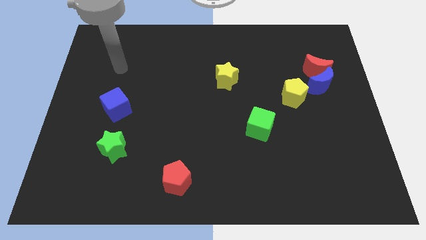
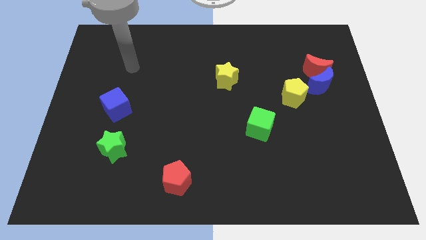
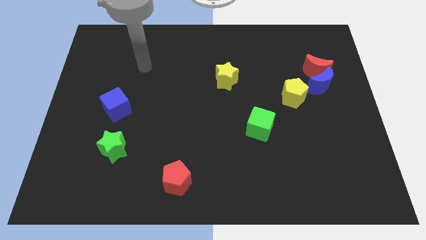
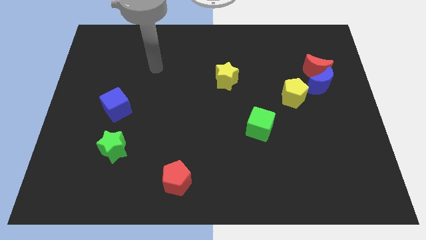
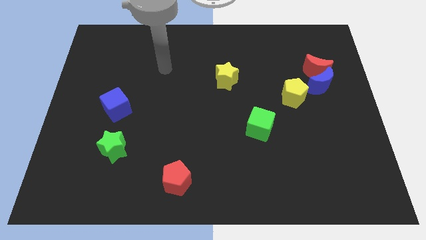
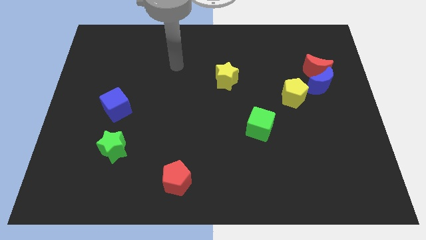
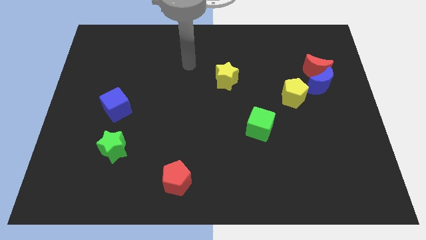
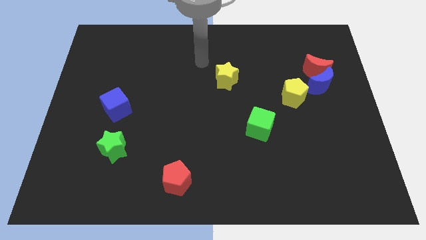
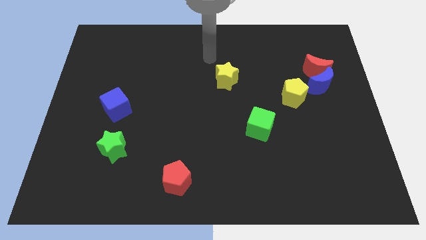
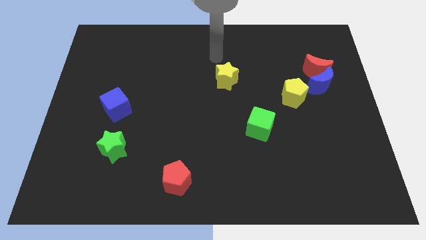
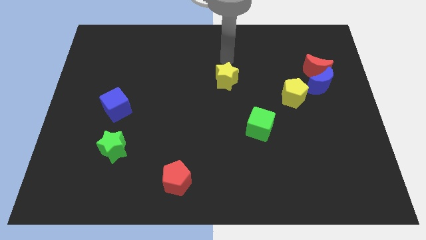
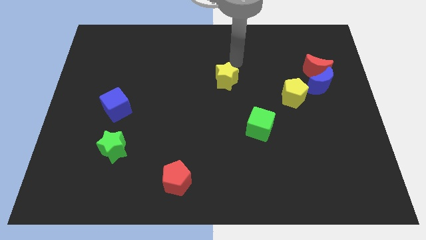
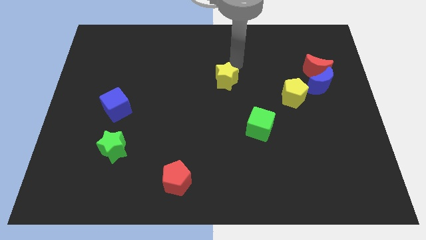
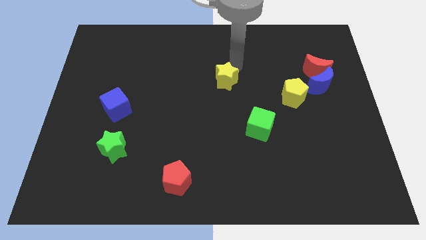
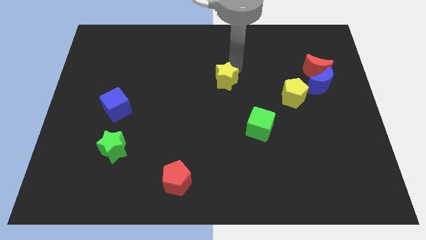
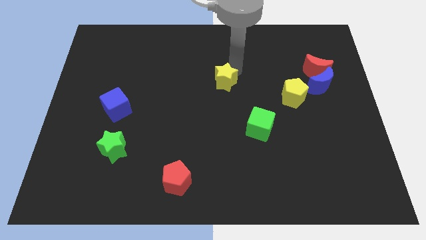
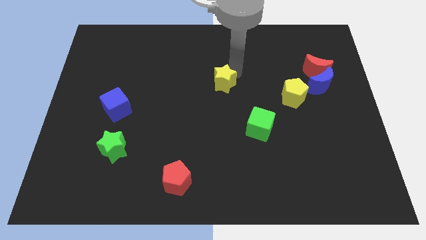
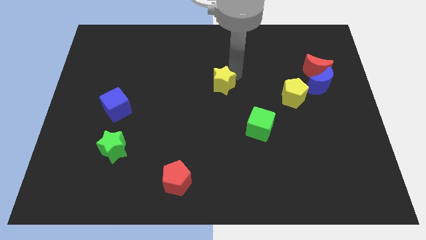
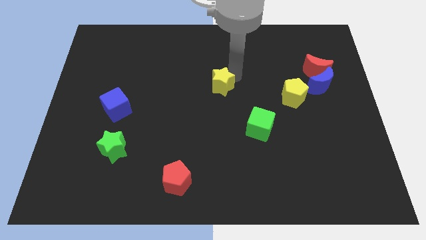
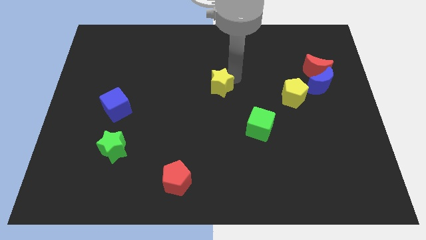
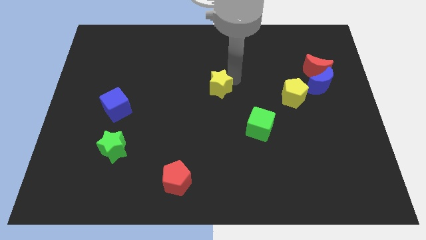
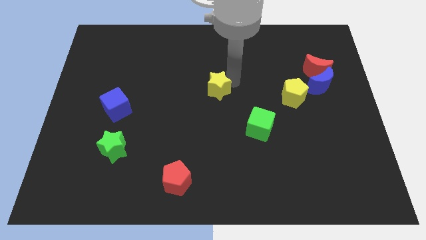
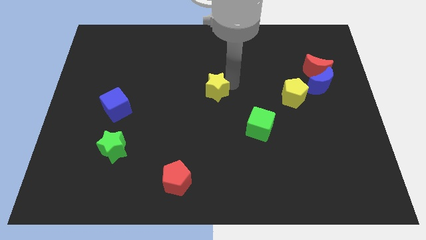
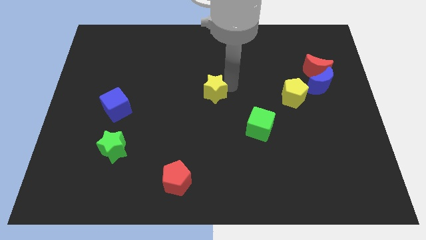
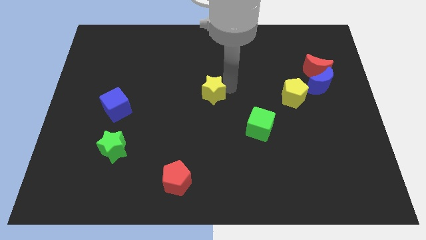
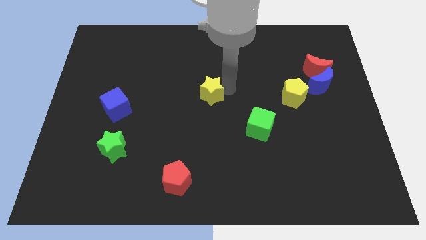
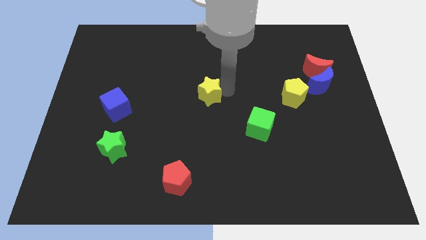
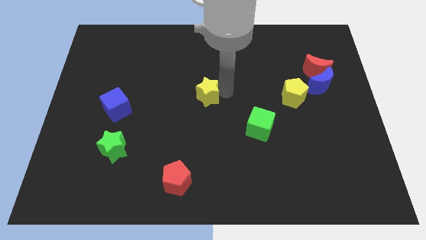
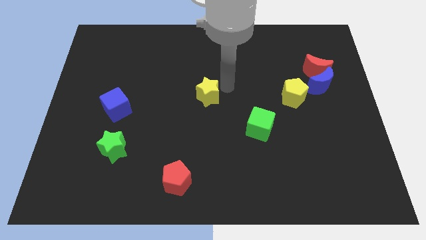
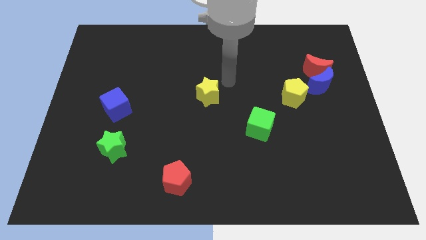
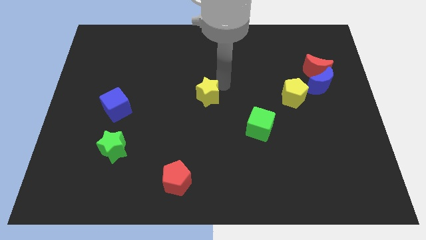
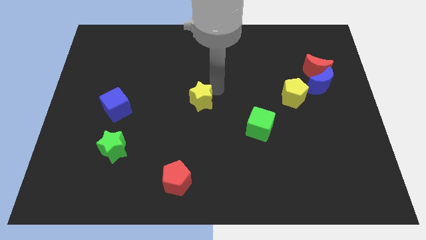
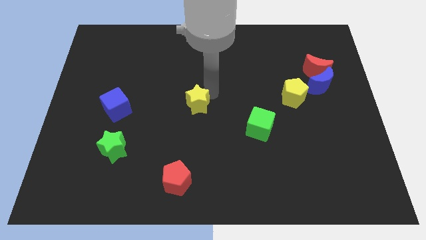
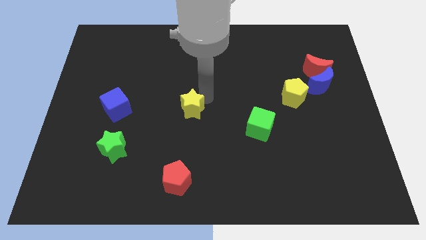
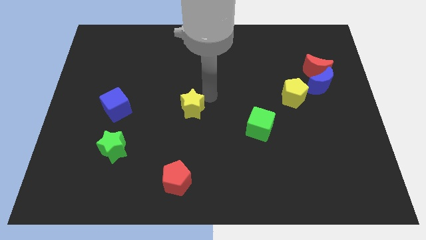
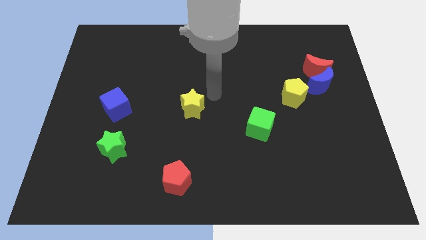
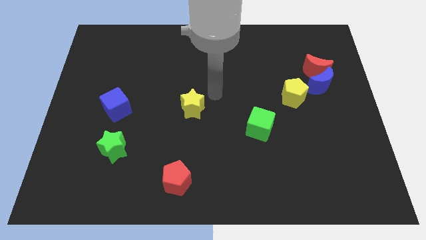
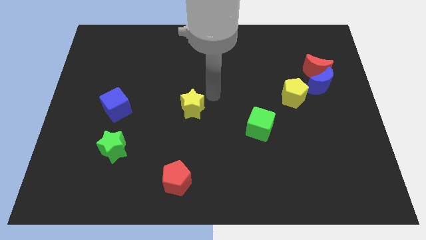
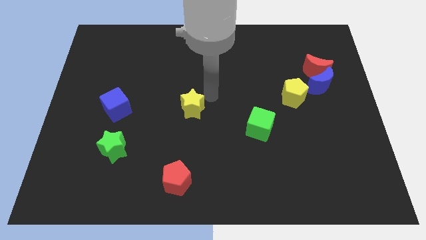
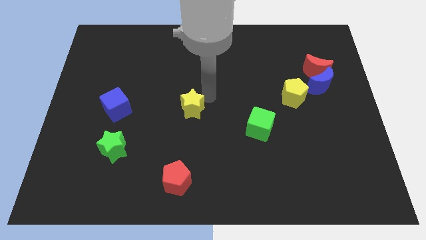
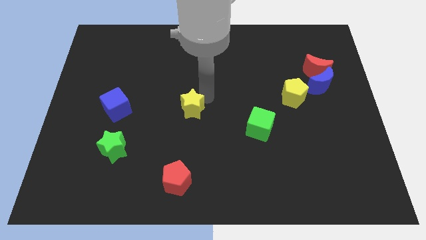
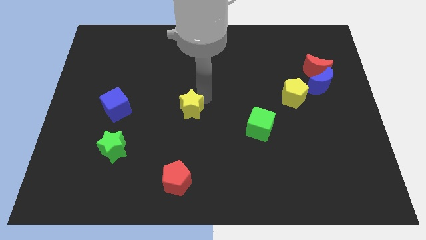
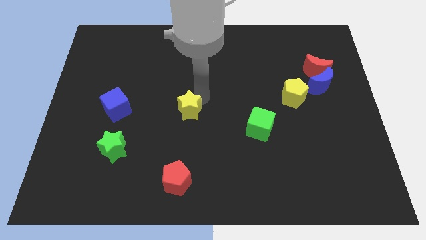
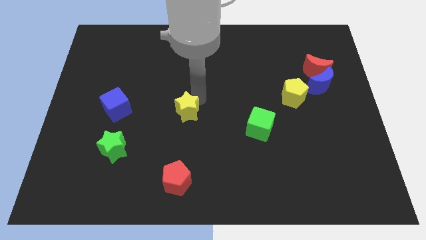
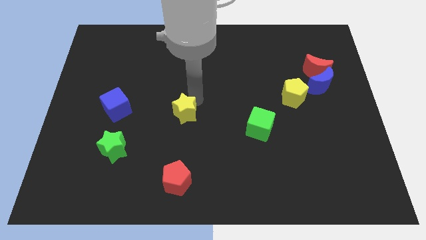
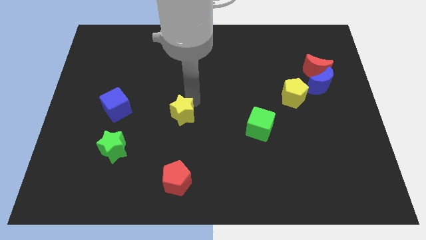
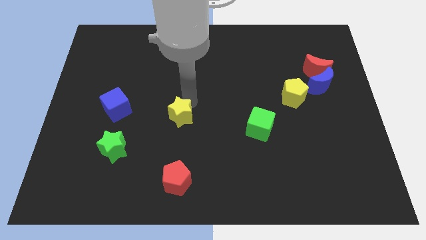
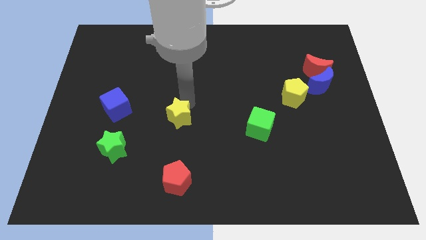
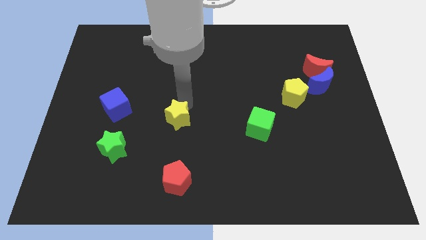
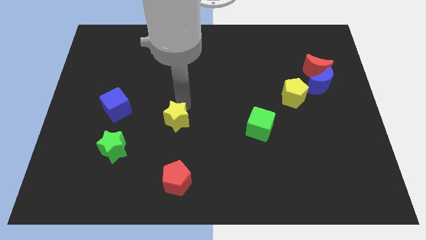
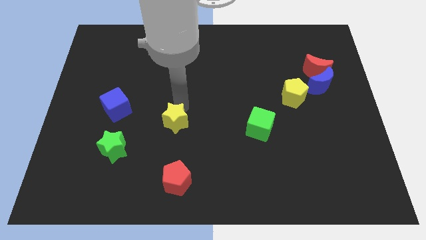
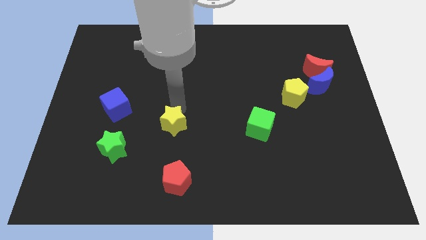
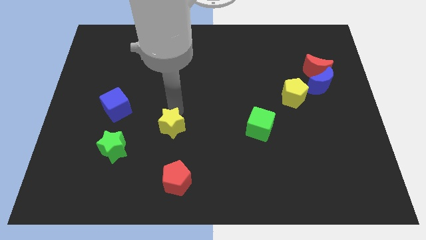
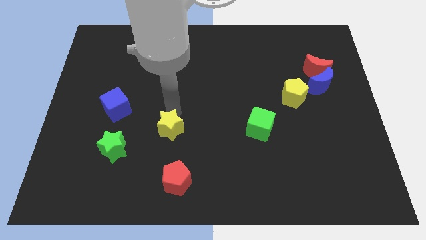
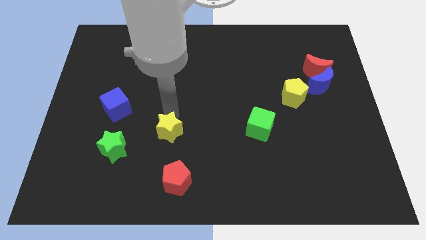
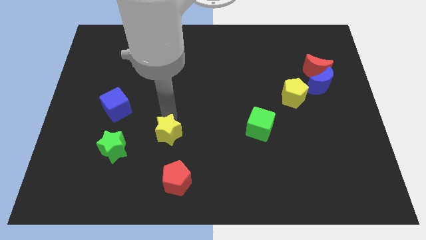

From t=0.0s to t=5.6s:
slide the yellow star to the right side of the green star

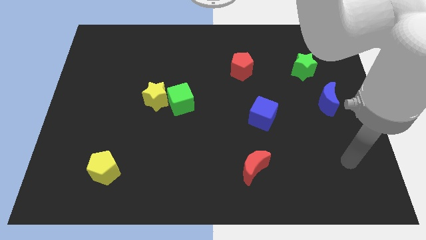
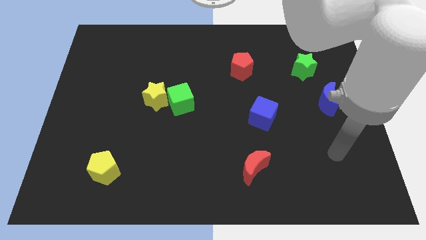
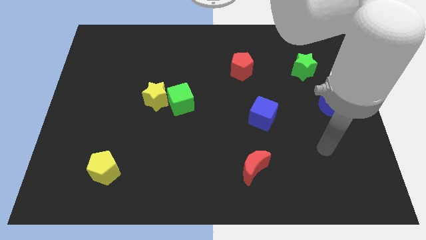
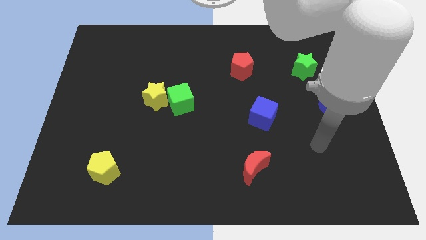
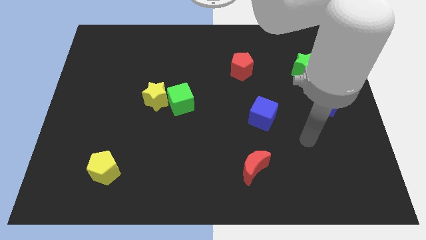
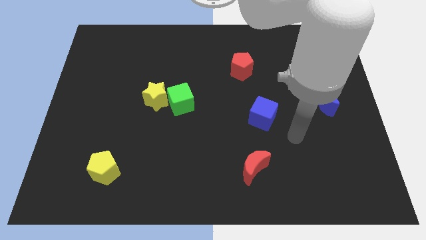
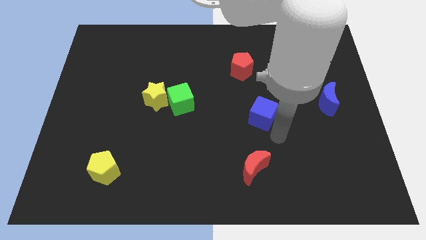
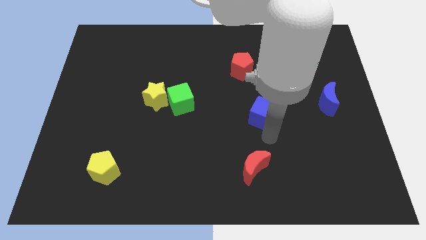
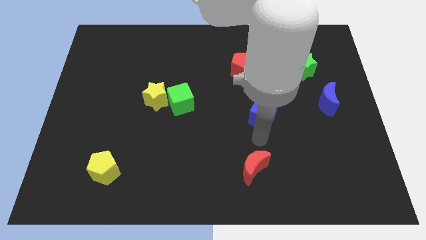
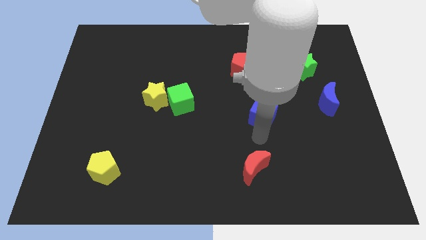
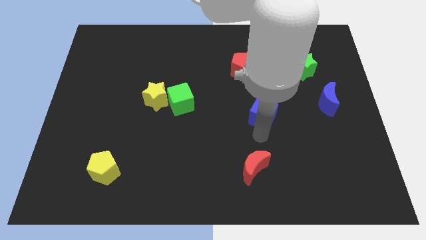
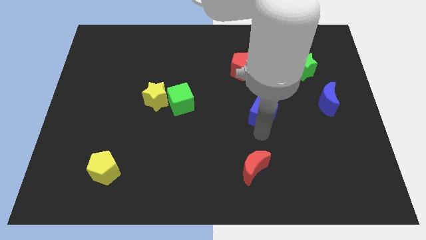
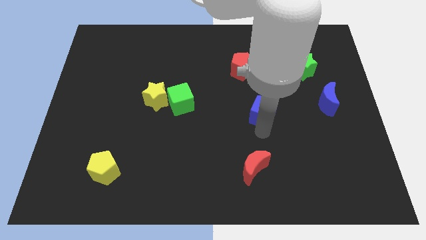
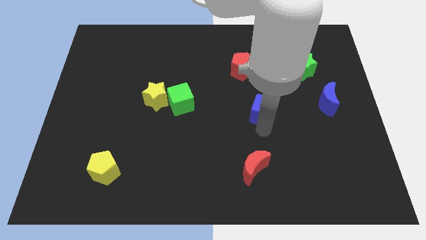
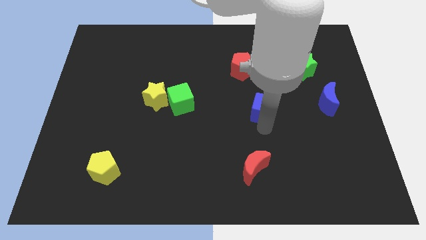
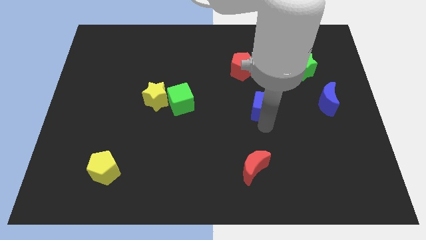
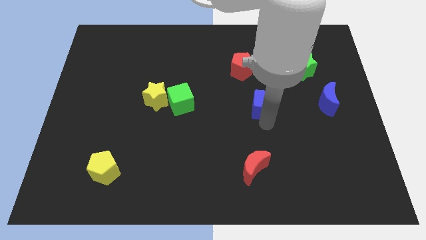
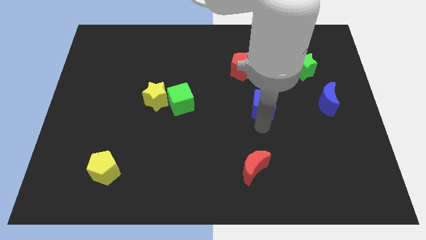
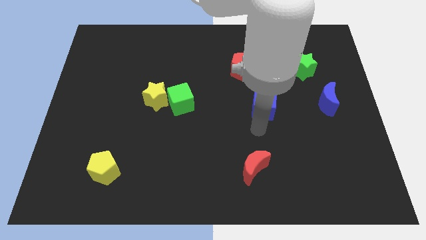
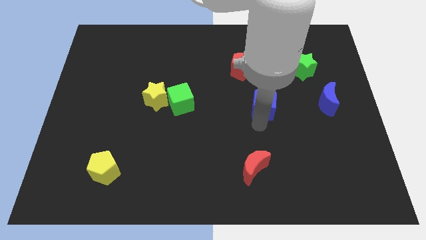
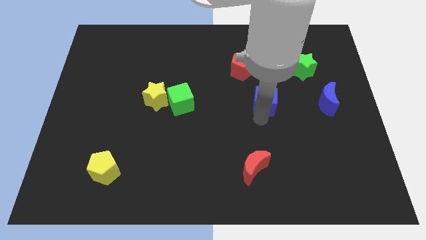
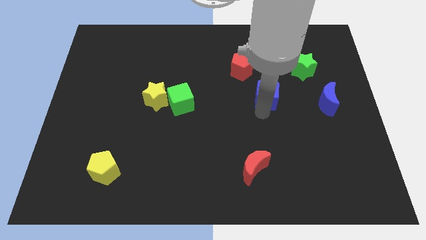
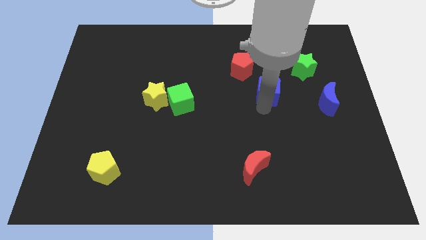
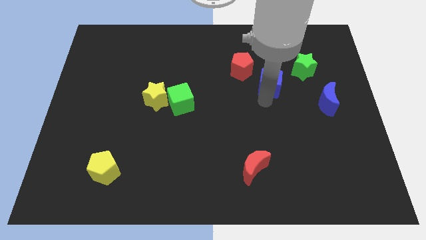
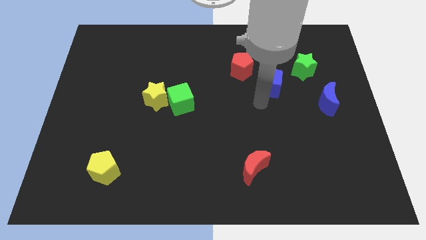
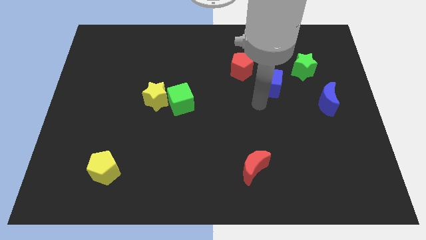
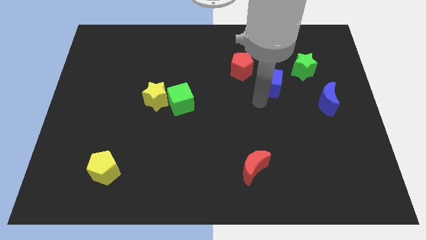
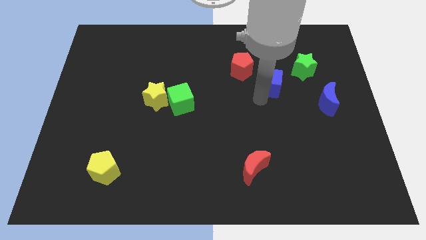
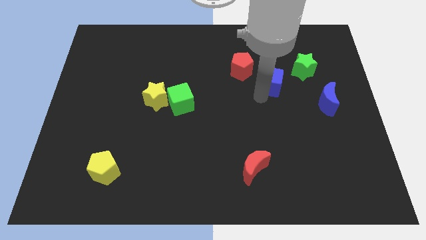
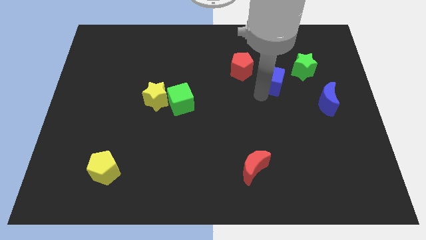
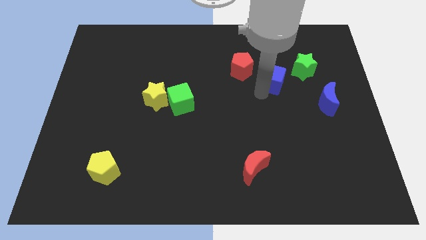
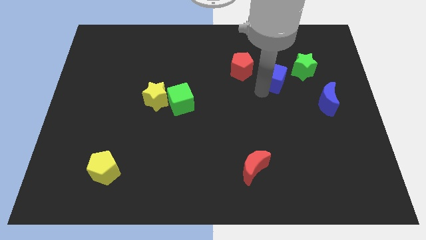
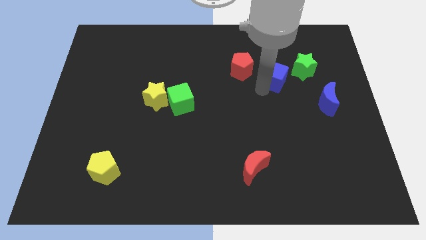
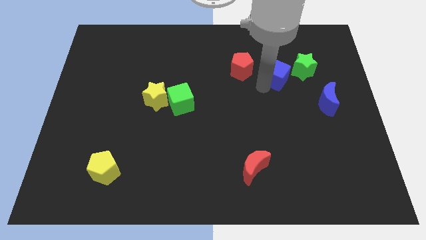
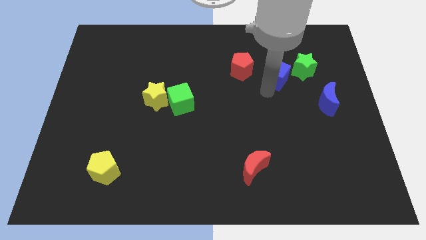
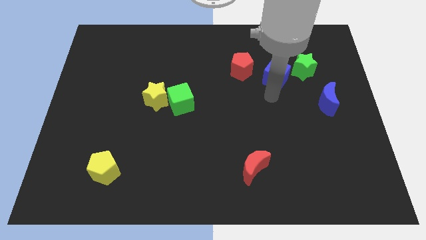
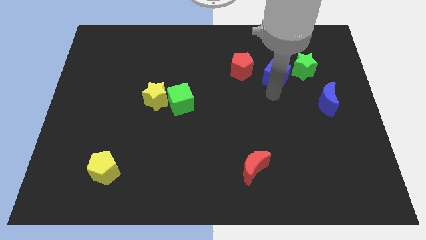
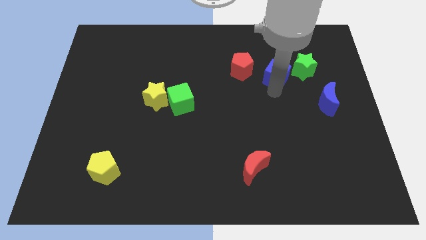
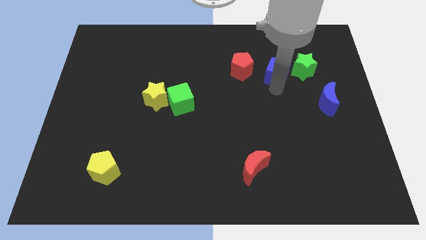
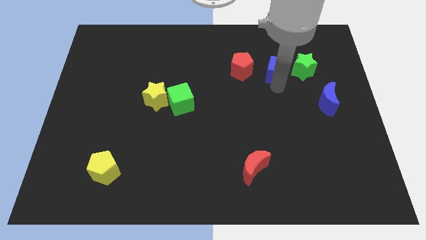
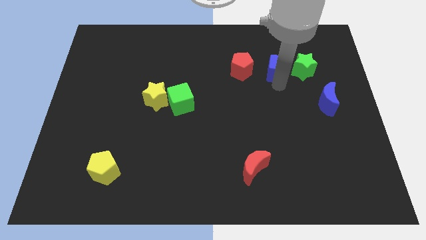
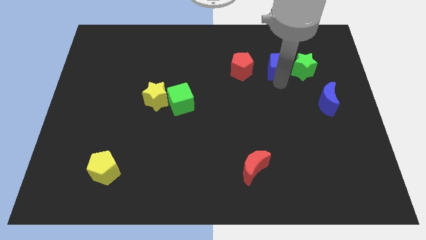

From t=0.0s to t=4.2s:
move the blue cube to the top left of the green star
